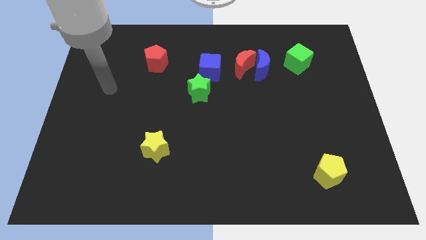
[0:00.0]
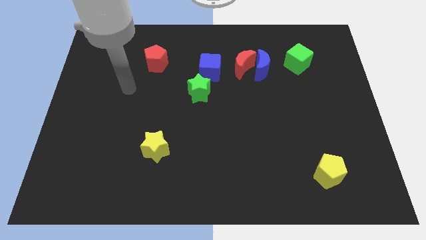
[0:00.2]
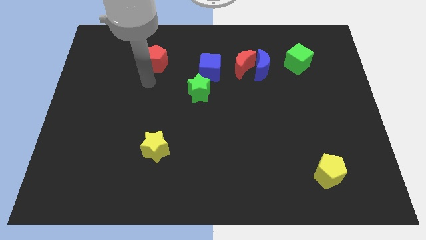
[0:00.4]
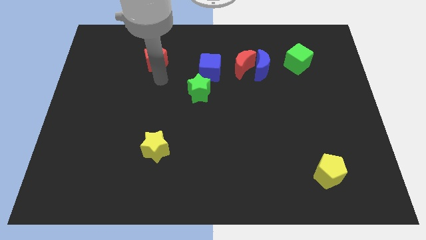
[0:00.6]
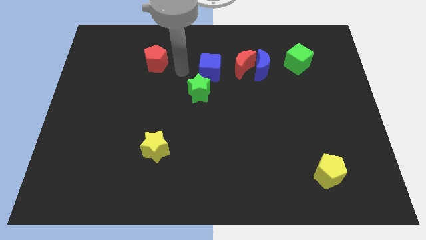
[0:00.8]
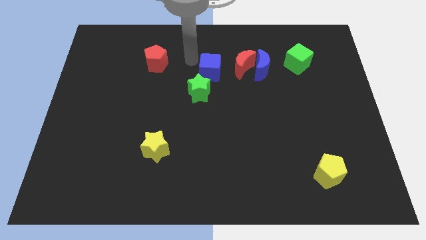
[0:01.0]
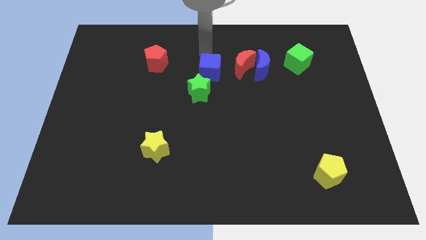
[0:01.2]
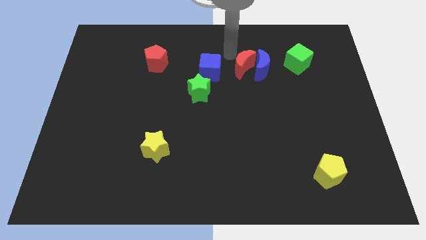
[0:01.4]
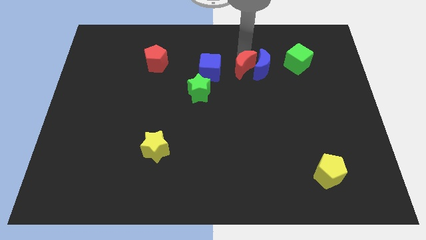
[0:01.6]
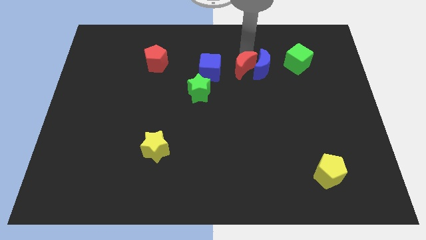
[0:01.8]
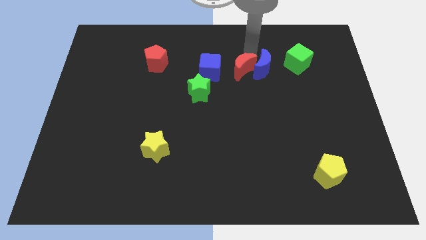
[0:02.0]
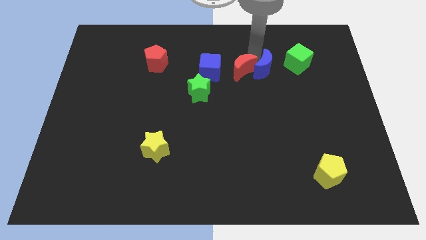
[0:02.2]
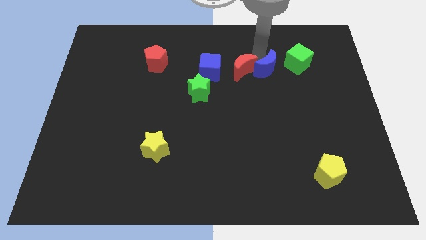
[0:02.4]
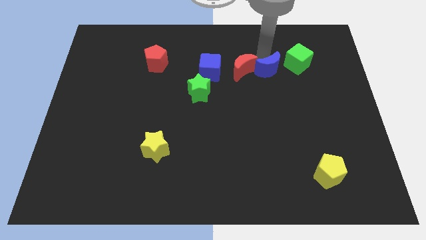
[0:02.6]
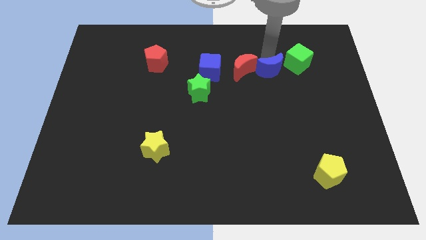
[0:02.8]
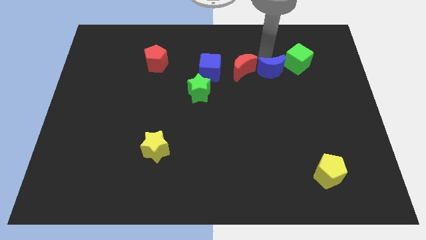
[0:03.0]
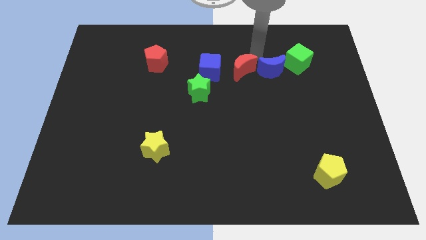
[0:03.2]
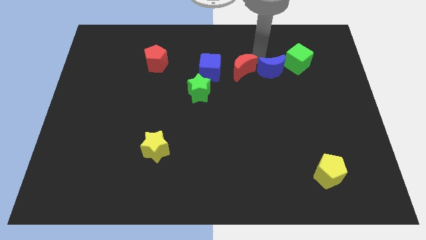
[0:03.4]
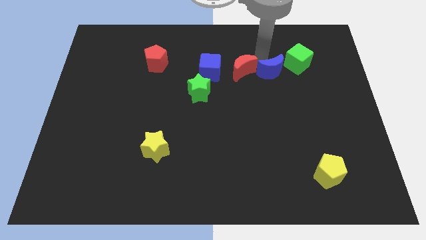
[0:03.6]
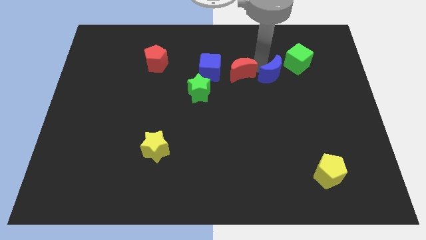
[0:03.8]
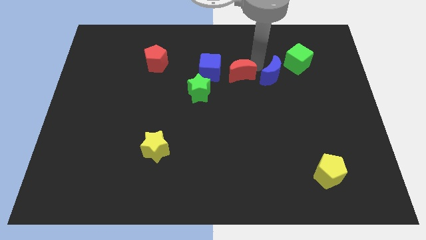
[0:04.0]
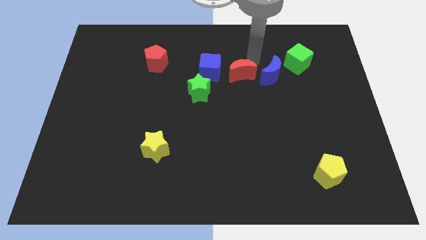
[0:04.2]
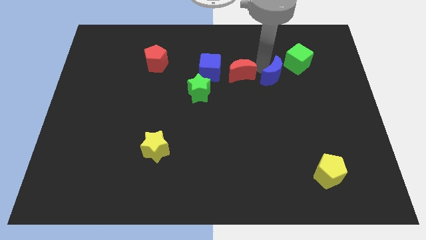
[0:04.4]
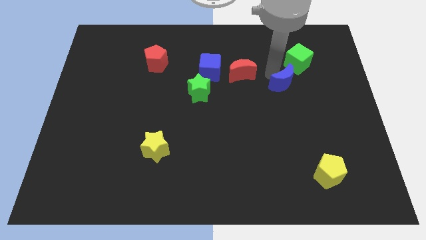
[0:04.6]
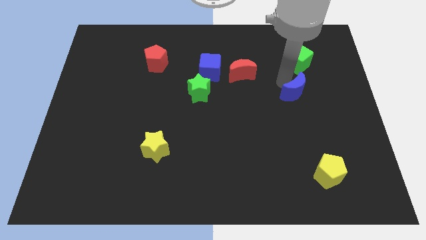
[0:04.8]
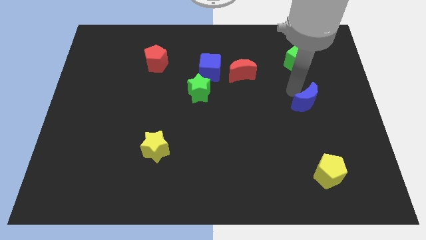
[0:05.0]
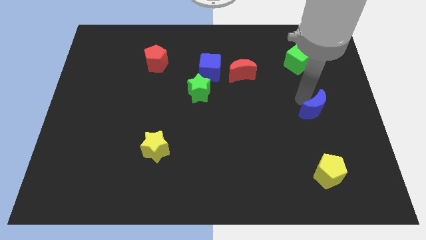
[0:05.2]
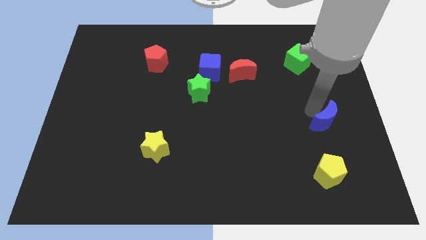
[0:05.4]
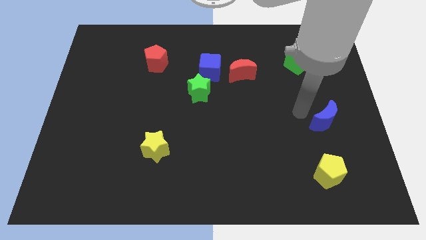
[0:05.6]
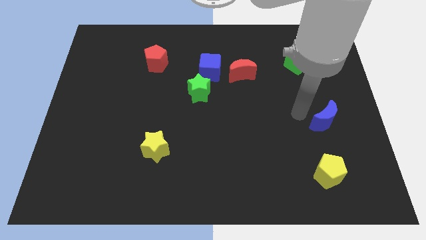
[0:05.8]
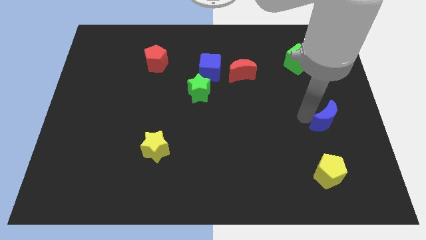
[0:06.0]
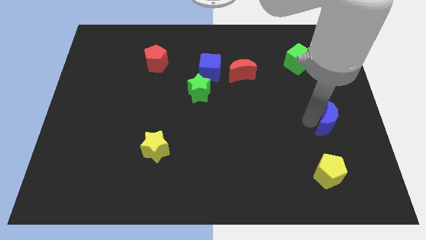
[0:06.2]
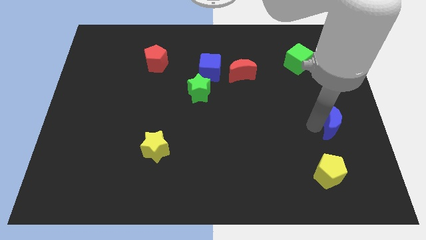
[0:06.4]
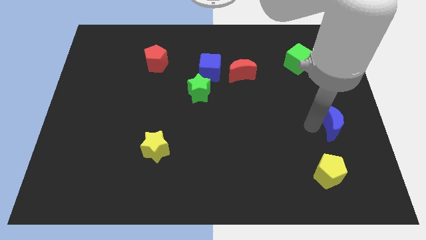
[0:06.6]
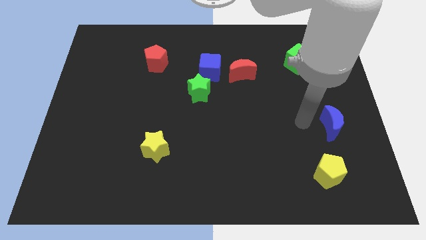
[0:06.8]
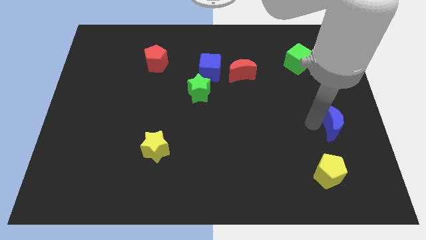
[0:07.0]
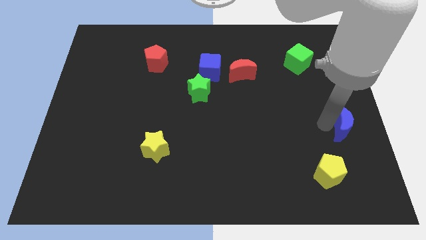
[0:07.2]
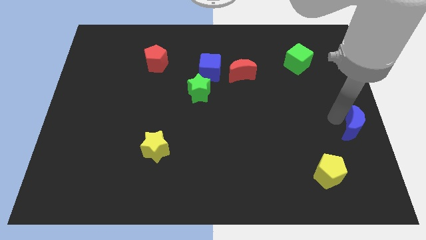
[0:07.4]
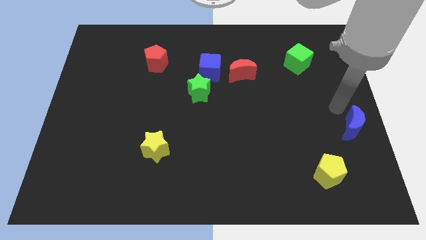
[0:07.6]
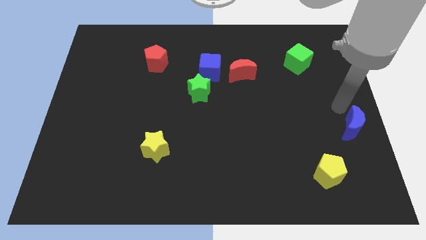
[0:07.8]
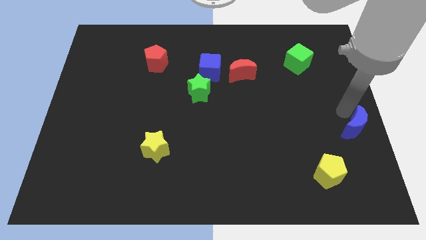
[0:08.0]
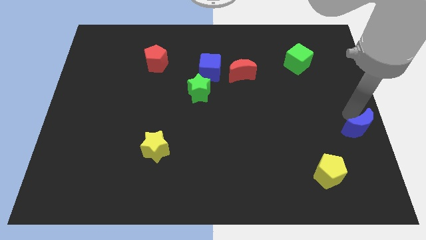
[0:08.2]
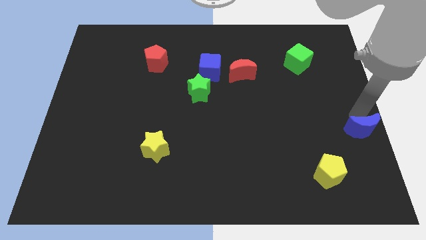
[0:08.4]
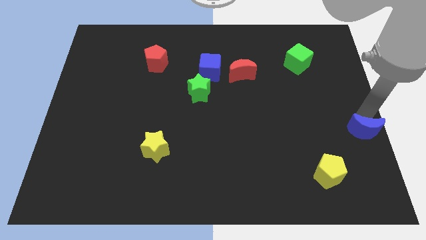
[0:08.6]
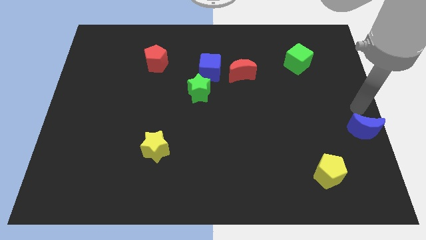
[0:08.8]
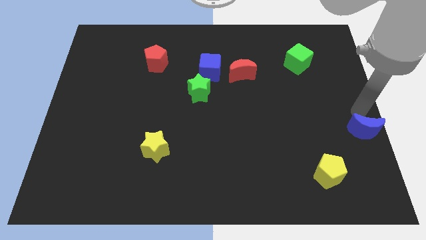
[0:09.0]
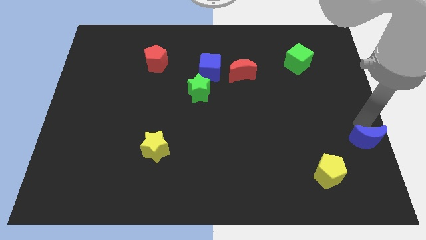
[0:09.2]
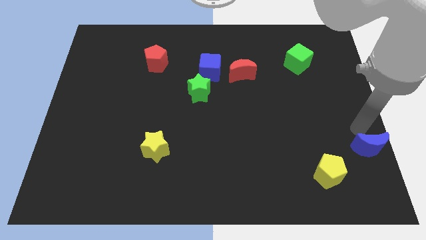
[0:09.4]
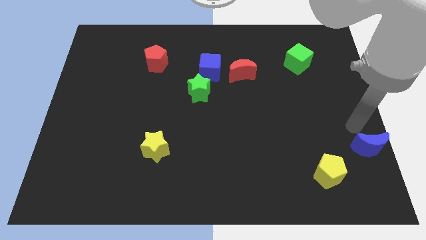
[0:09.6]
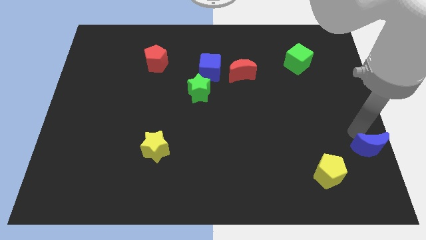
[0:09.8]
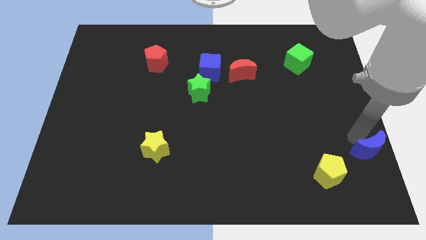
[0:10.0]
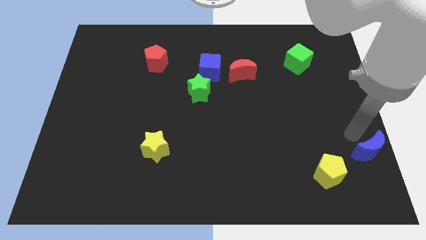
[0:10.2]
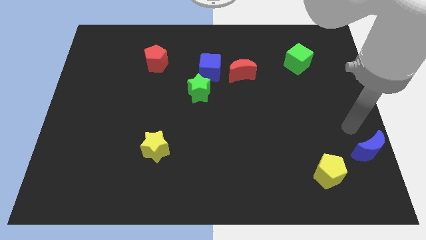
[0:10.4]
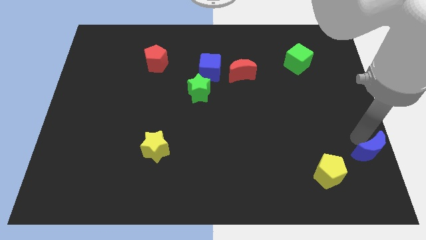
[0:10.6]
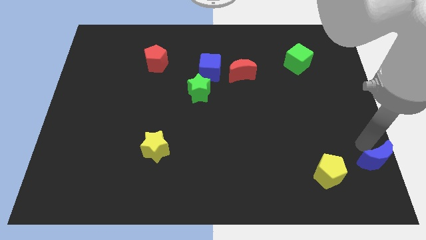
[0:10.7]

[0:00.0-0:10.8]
put the blue moon to the lower right corner

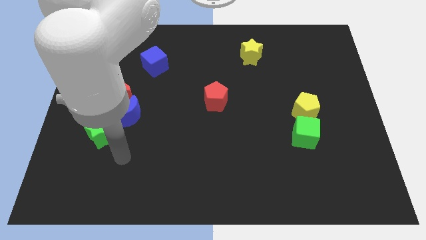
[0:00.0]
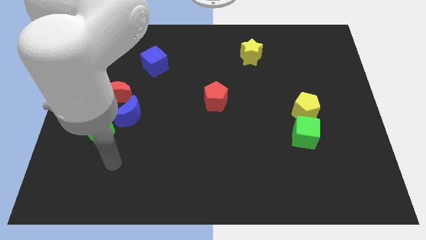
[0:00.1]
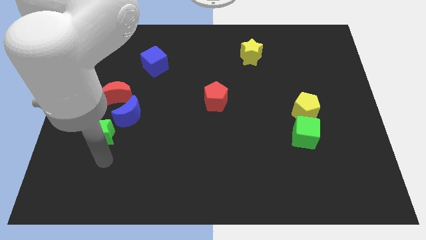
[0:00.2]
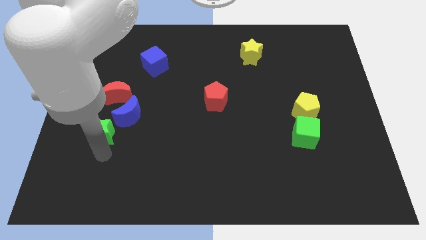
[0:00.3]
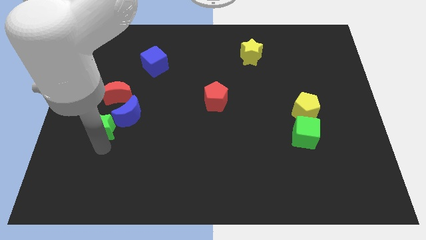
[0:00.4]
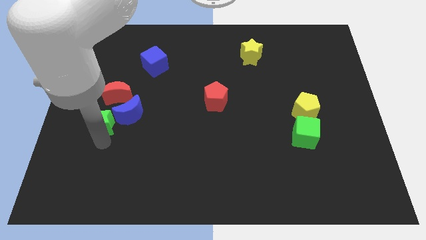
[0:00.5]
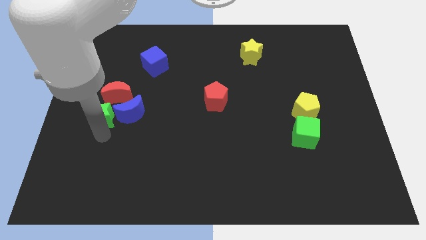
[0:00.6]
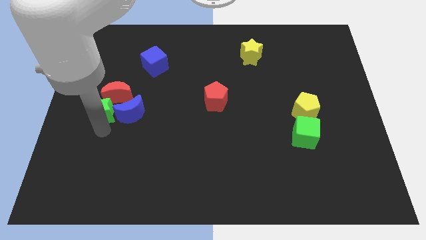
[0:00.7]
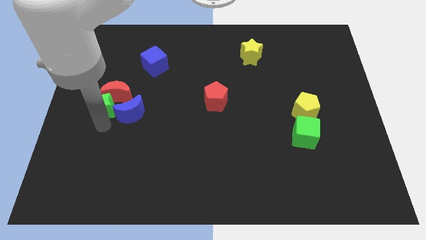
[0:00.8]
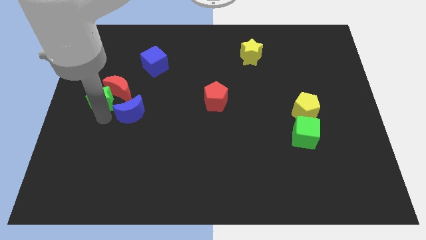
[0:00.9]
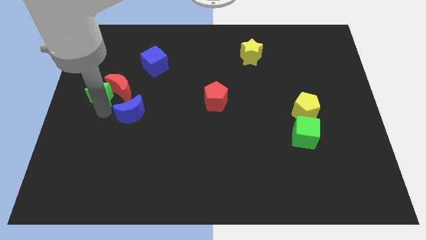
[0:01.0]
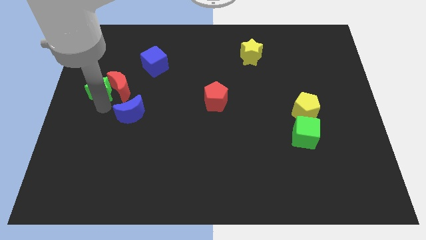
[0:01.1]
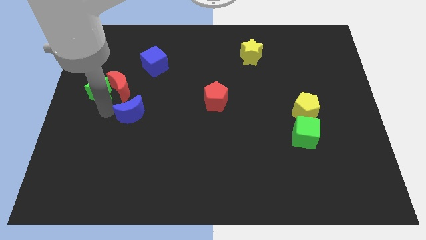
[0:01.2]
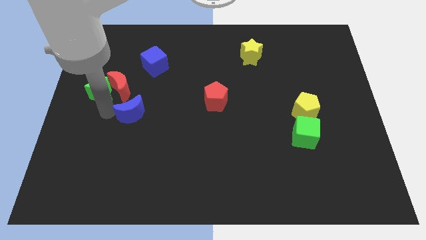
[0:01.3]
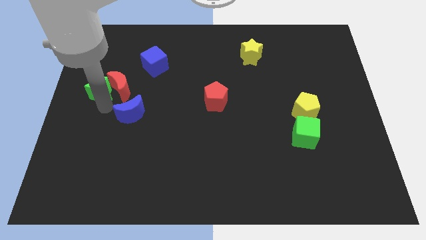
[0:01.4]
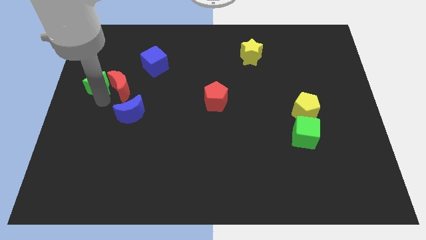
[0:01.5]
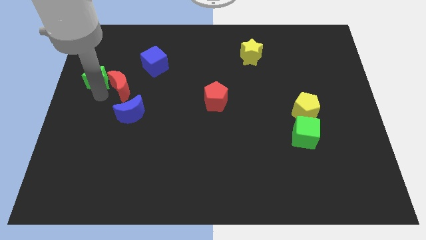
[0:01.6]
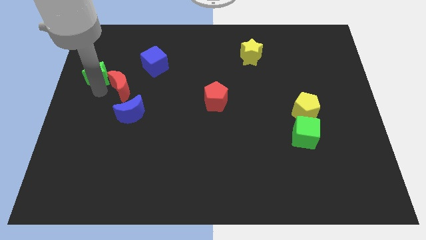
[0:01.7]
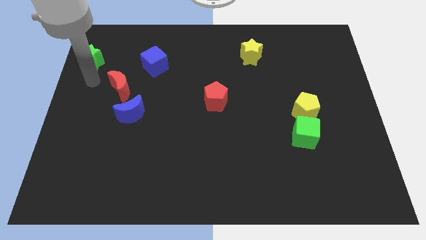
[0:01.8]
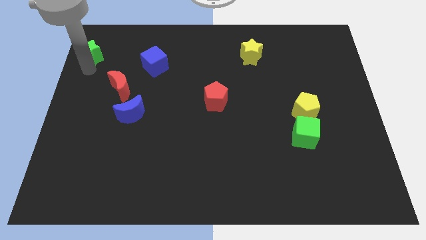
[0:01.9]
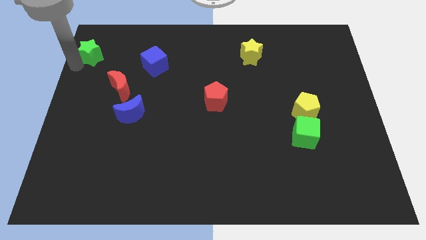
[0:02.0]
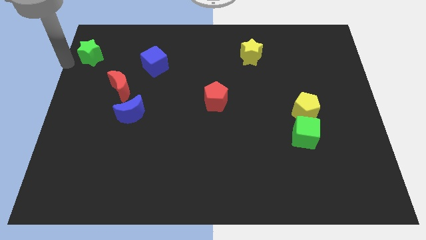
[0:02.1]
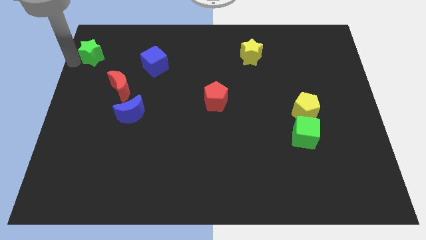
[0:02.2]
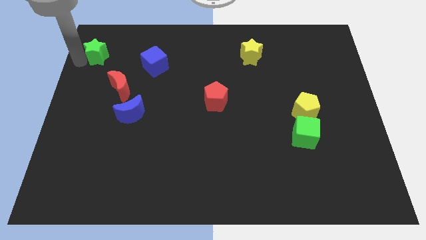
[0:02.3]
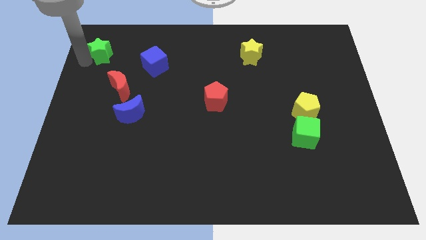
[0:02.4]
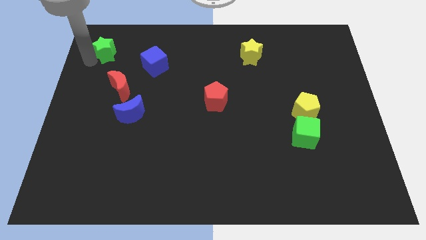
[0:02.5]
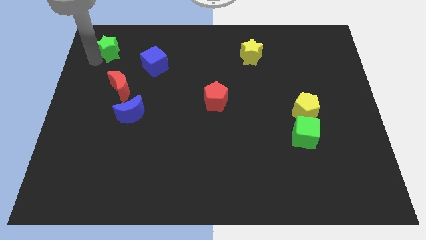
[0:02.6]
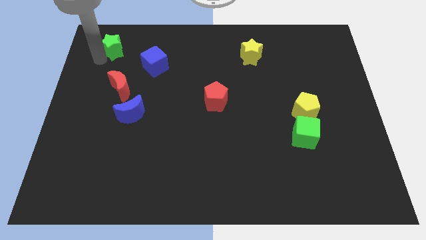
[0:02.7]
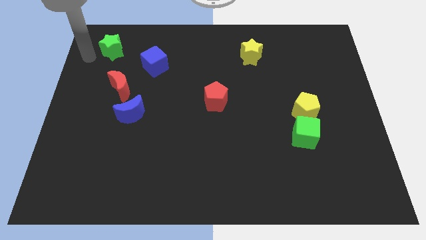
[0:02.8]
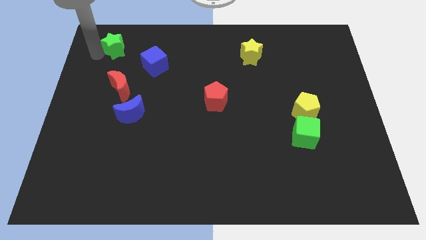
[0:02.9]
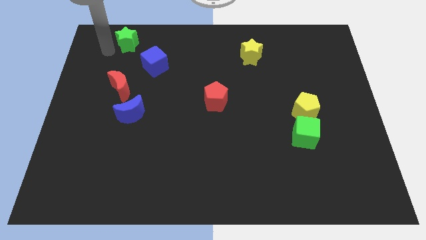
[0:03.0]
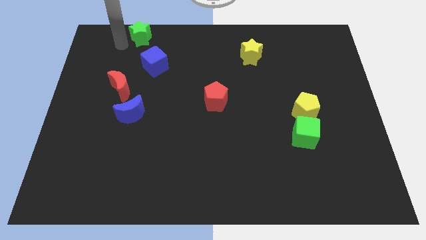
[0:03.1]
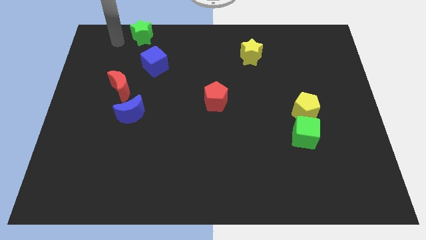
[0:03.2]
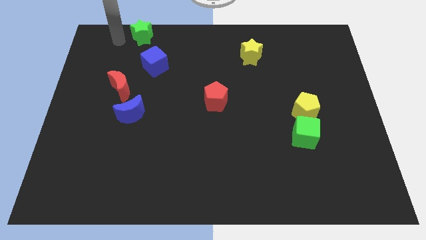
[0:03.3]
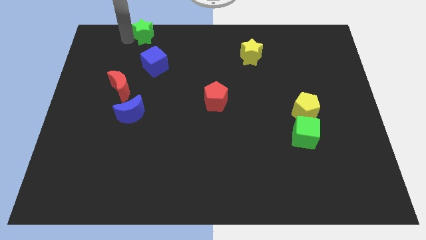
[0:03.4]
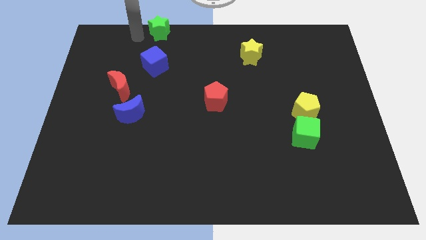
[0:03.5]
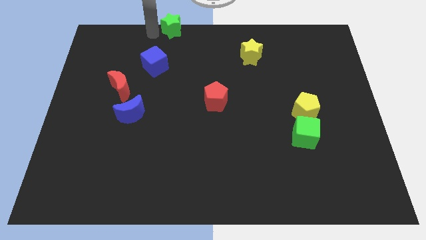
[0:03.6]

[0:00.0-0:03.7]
push the green star to the top side
